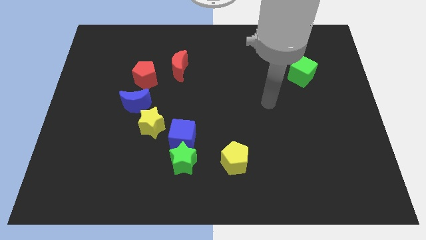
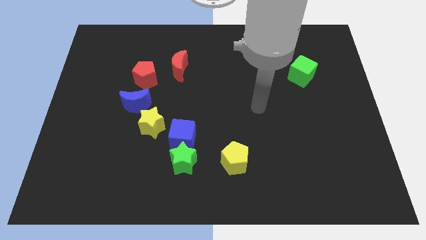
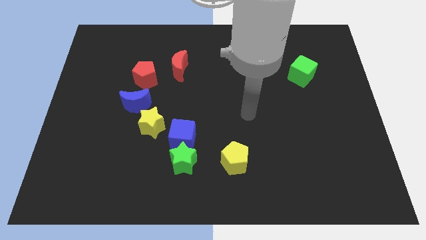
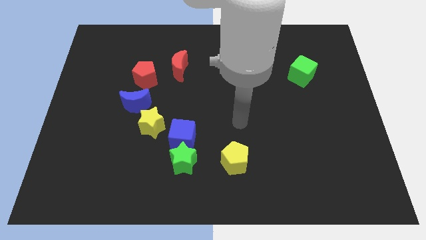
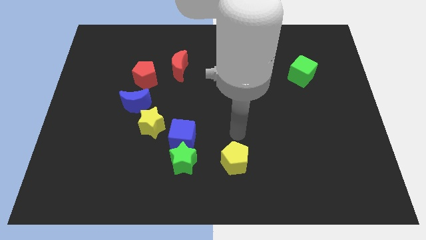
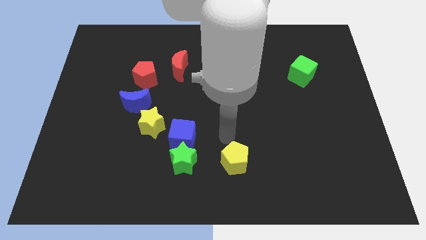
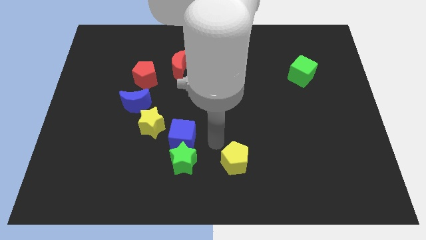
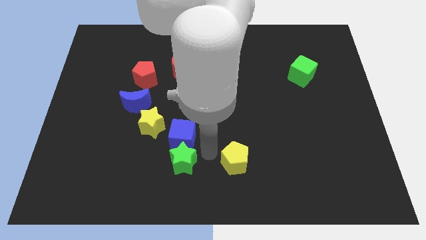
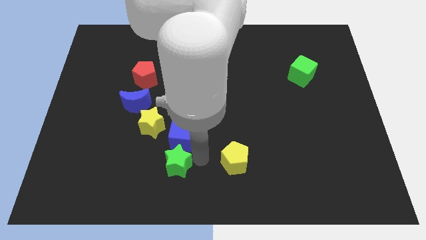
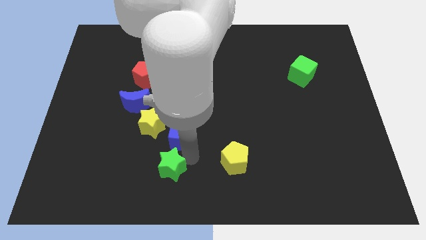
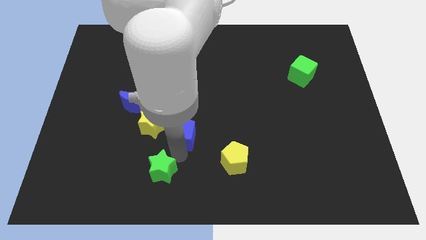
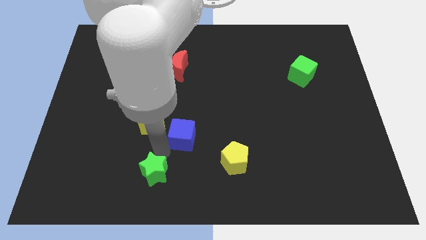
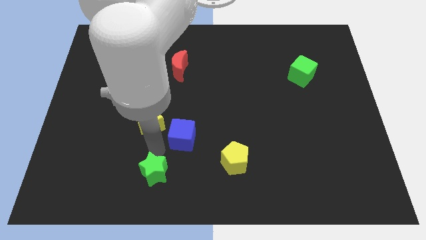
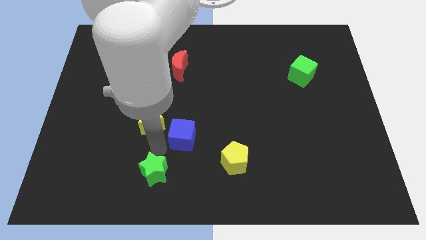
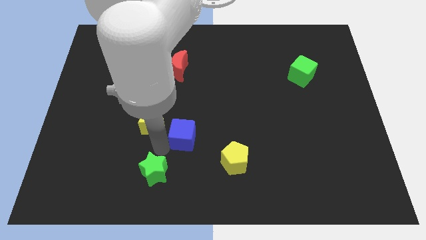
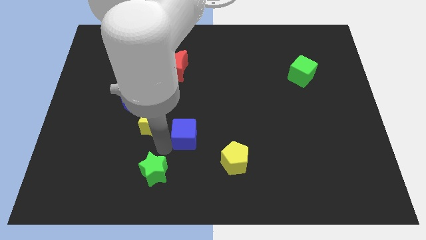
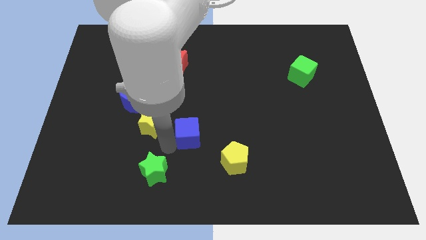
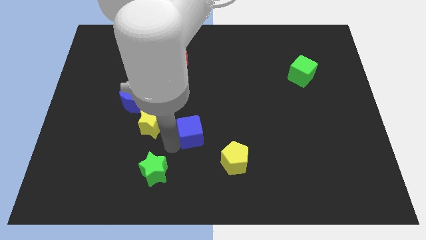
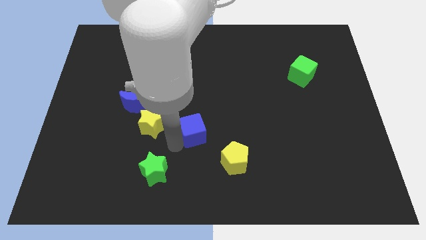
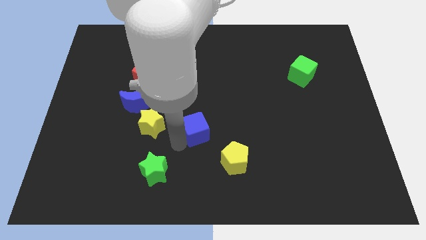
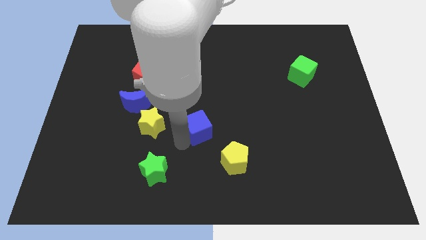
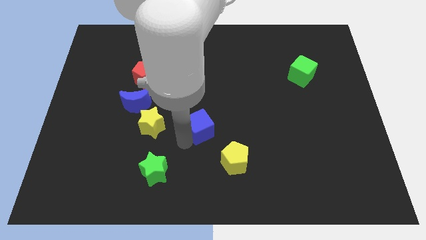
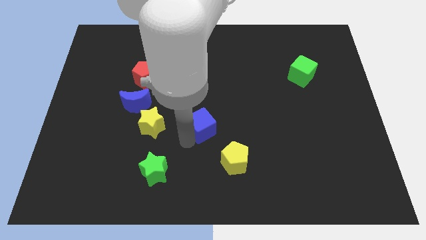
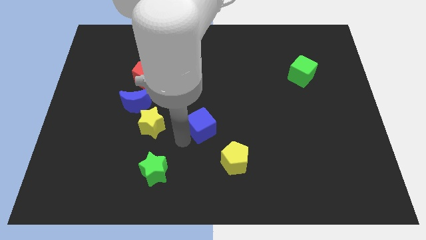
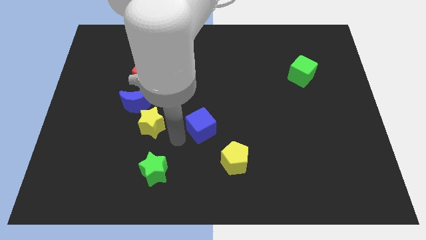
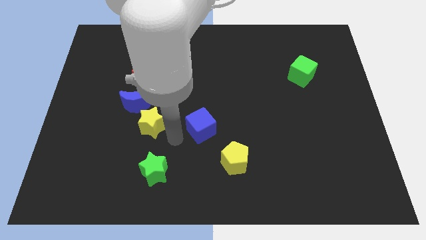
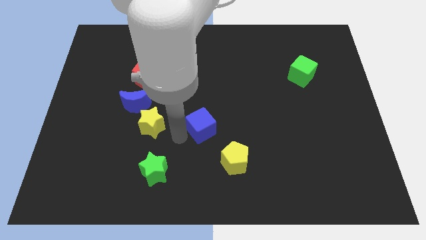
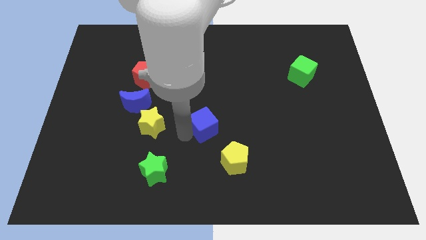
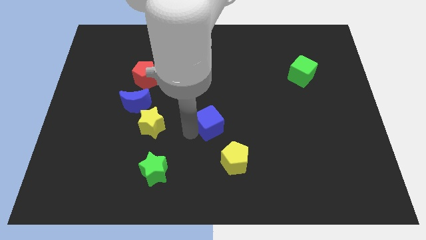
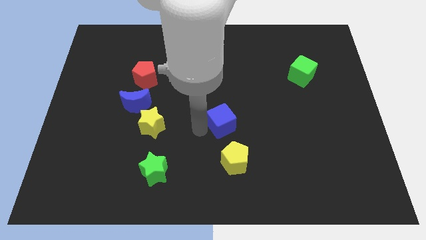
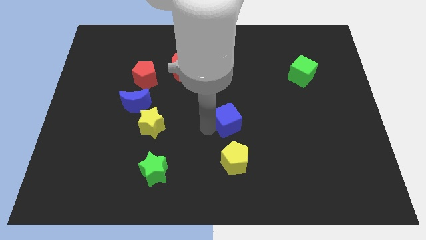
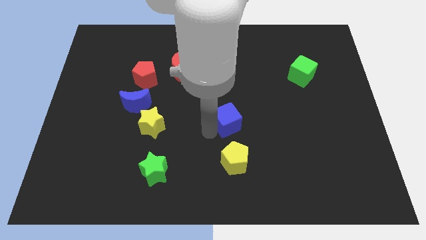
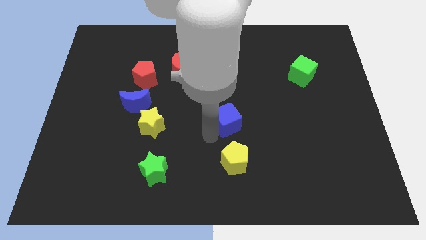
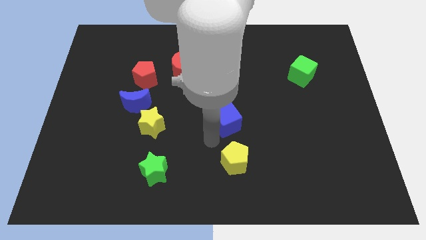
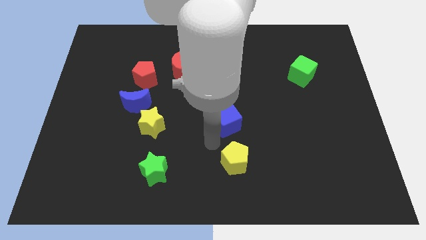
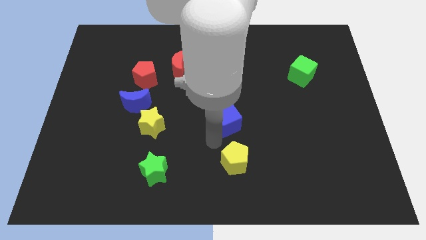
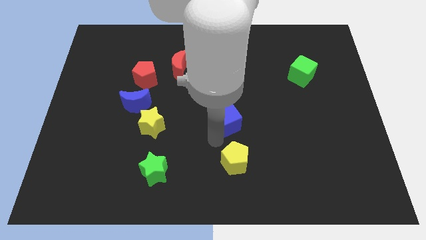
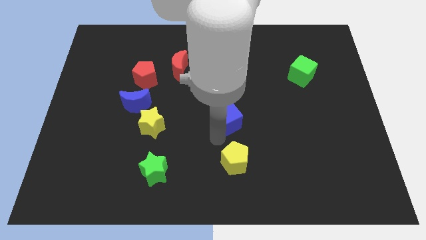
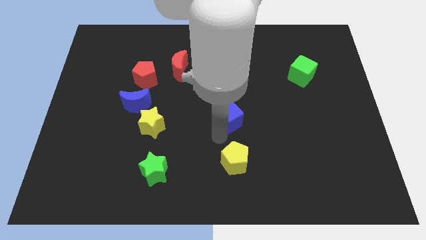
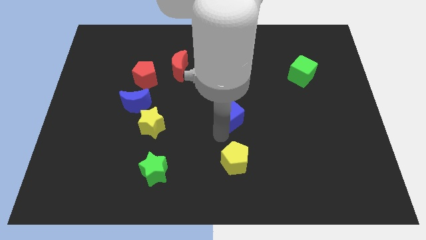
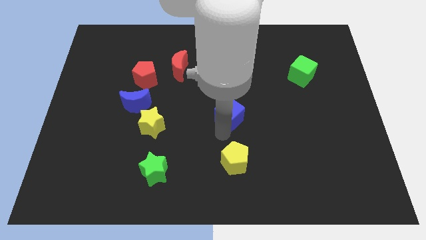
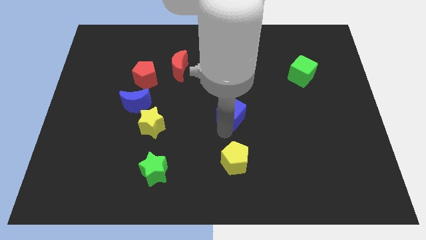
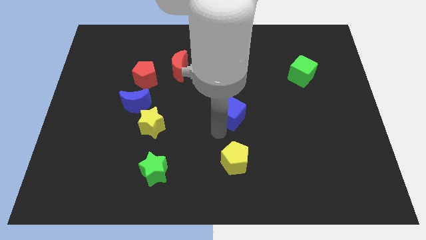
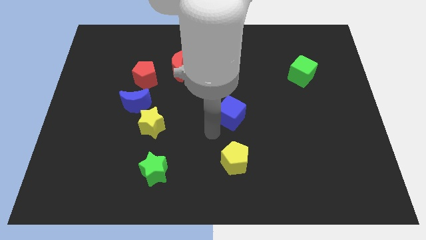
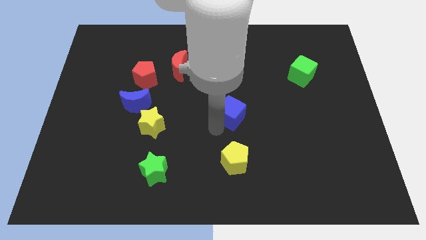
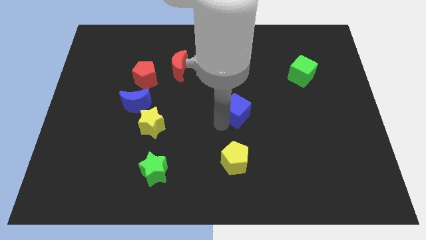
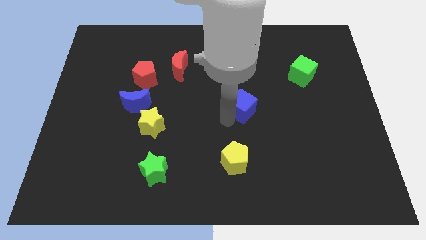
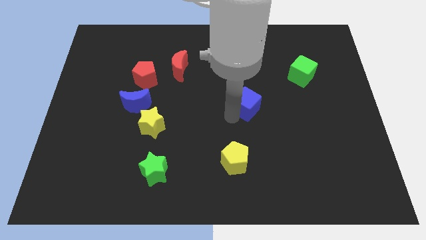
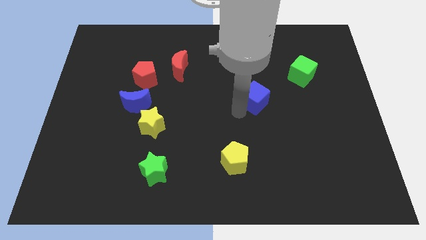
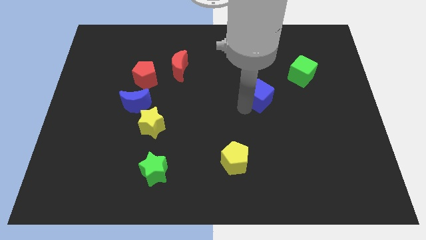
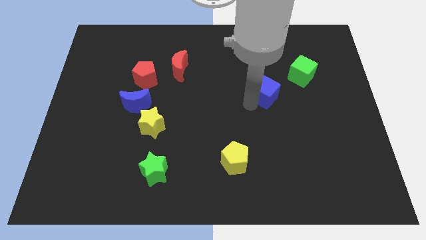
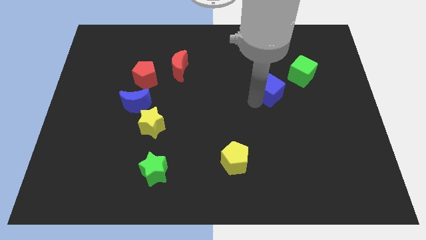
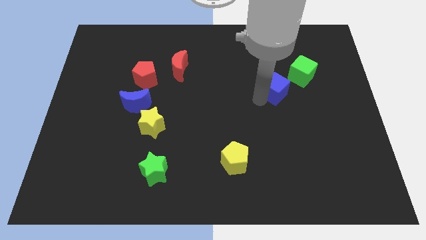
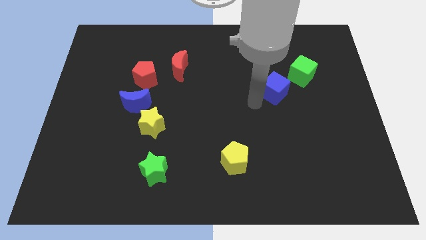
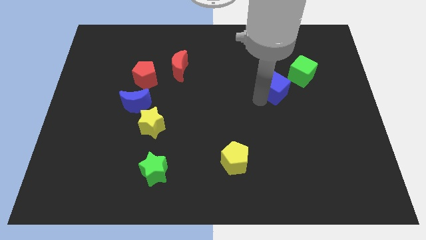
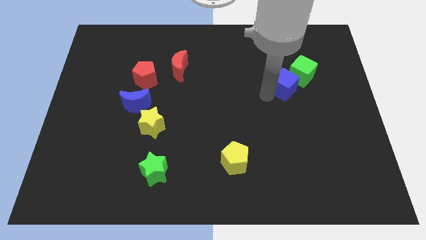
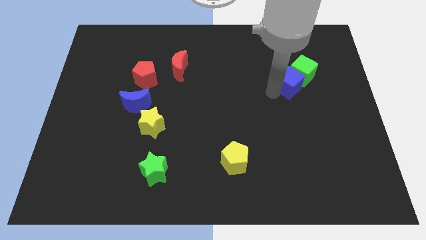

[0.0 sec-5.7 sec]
slide the blue cube towards the green cube
